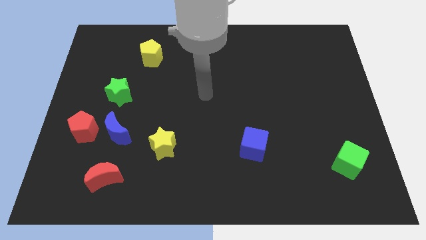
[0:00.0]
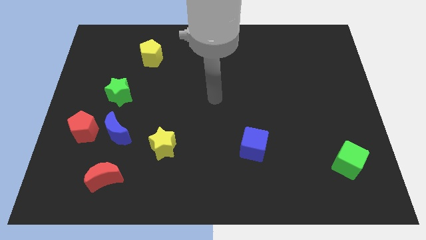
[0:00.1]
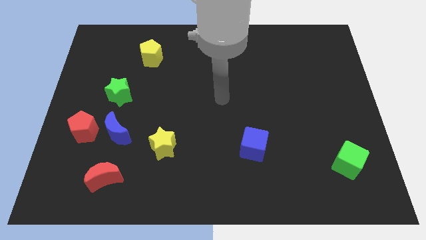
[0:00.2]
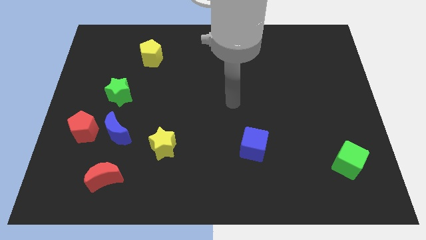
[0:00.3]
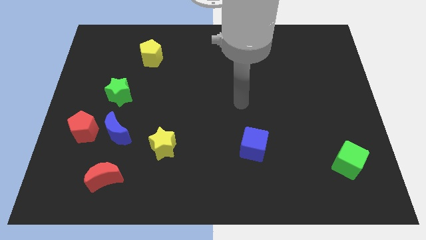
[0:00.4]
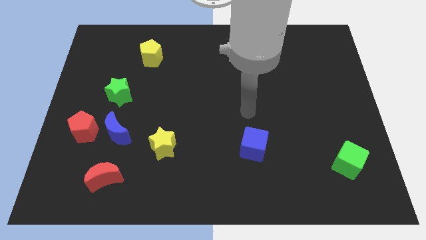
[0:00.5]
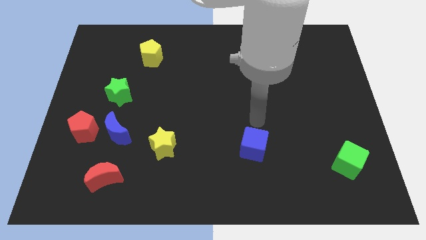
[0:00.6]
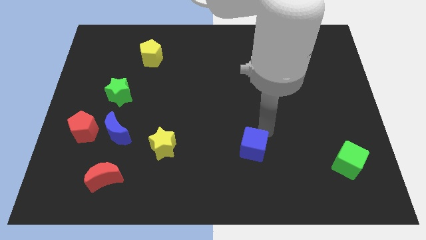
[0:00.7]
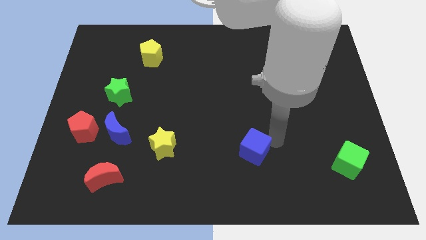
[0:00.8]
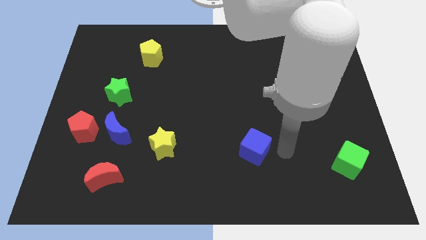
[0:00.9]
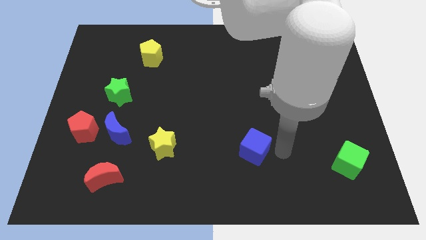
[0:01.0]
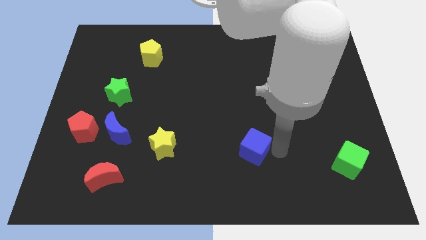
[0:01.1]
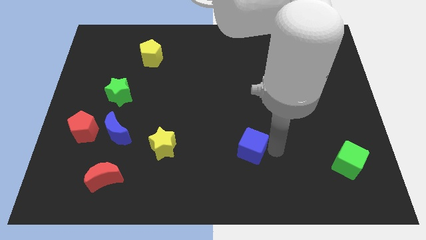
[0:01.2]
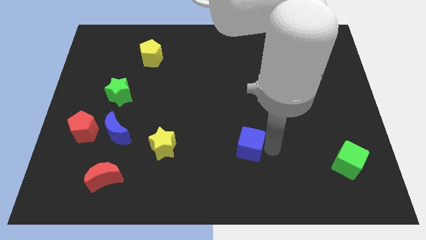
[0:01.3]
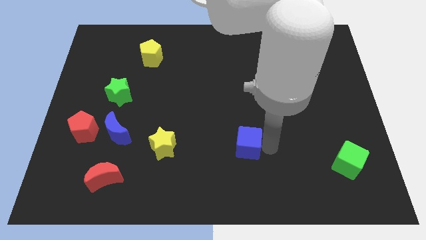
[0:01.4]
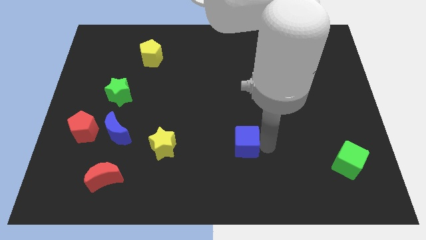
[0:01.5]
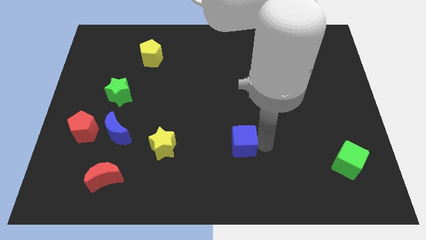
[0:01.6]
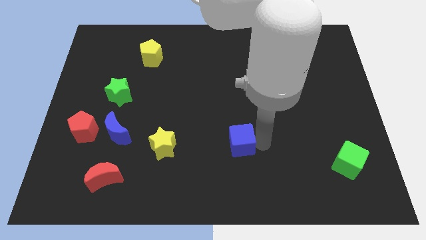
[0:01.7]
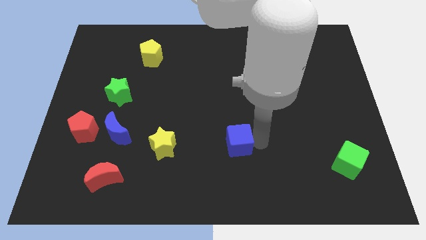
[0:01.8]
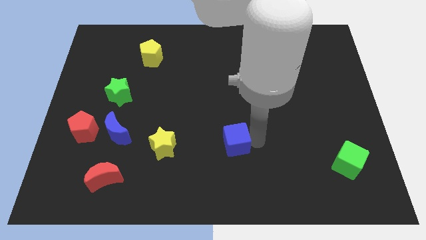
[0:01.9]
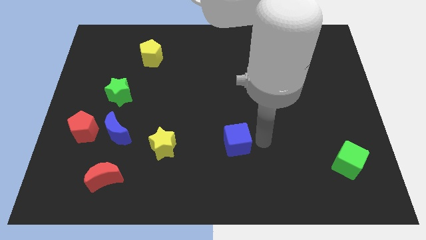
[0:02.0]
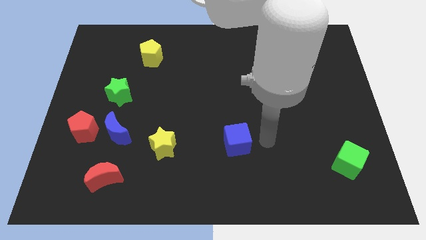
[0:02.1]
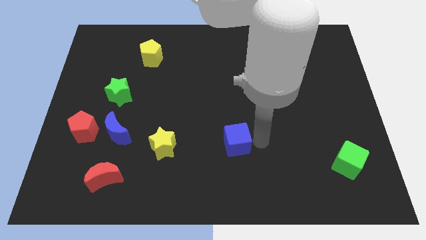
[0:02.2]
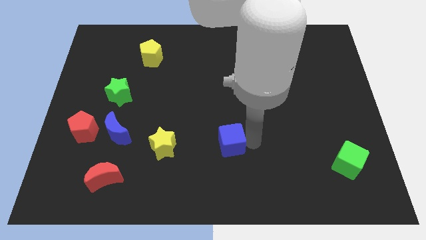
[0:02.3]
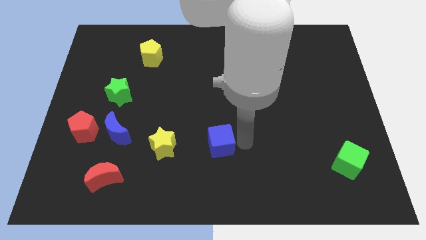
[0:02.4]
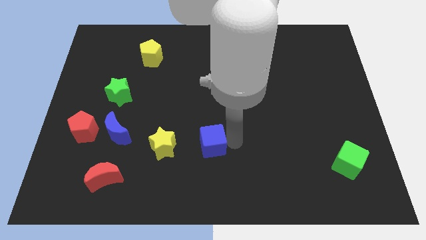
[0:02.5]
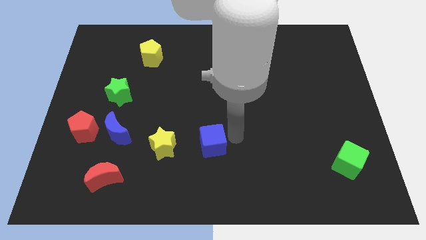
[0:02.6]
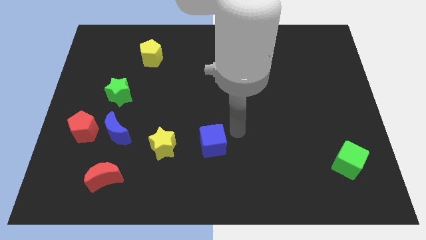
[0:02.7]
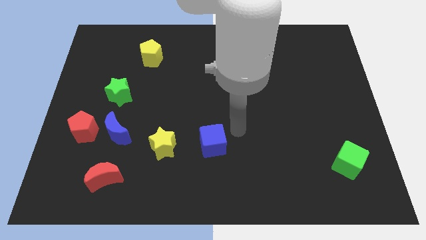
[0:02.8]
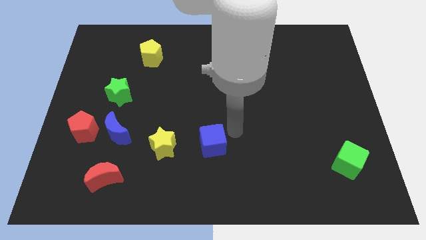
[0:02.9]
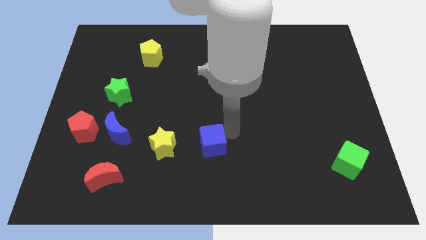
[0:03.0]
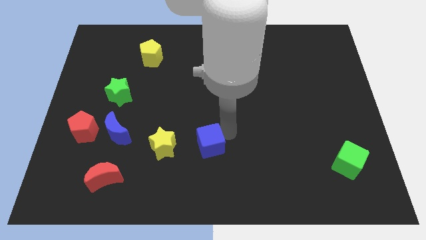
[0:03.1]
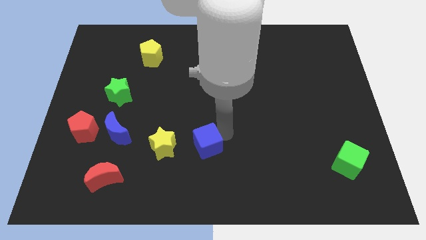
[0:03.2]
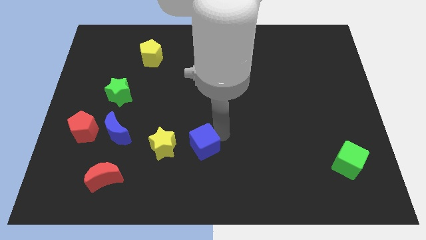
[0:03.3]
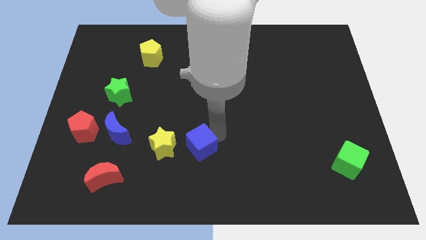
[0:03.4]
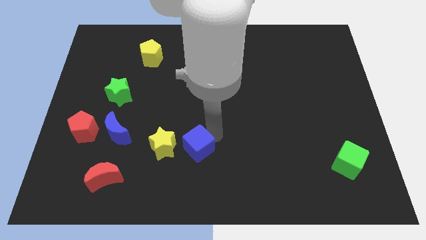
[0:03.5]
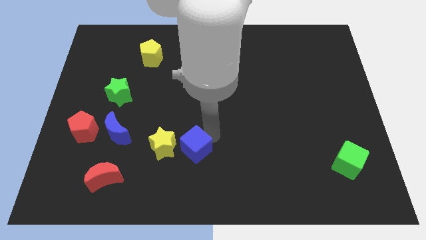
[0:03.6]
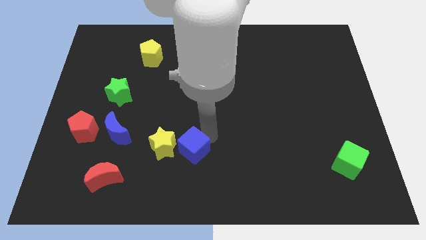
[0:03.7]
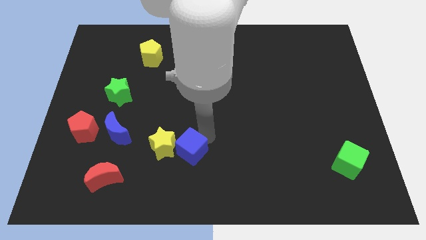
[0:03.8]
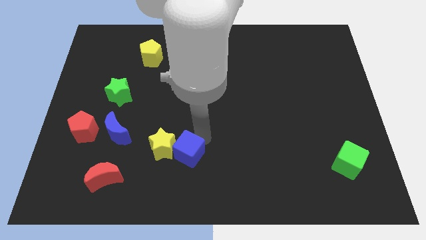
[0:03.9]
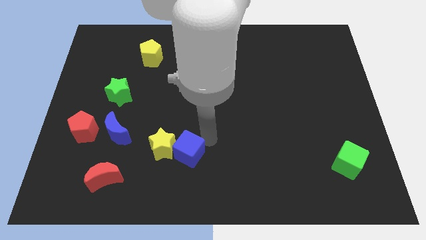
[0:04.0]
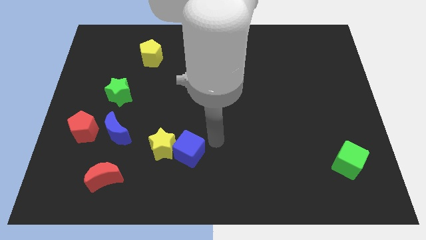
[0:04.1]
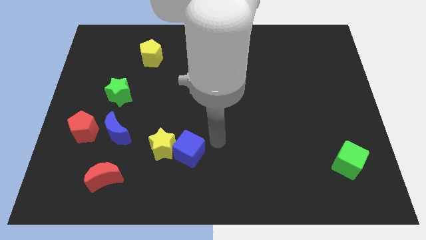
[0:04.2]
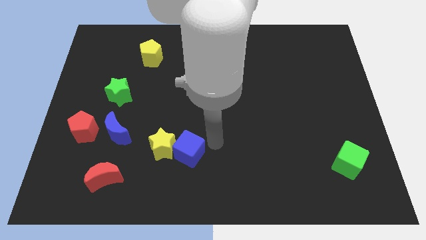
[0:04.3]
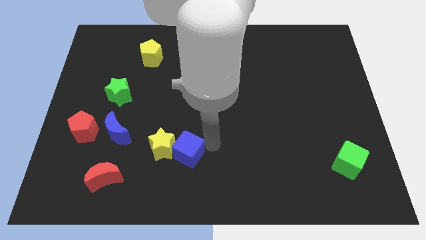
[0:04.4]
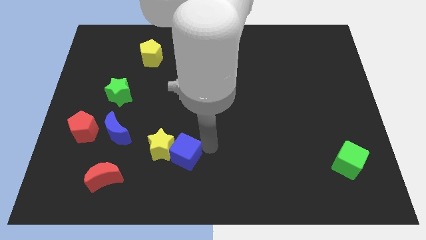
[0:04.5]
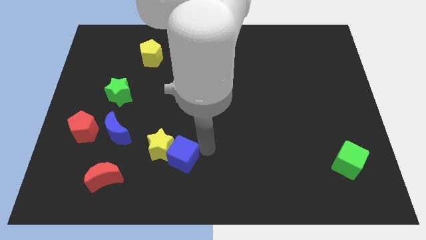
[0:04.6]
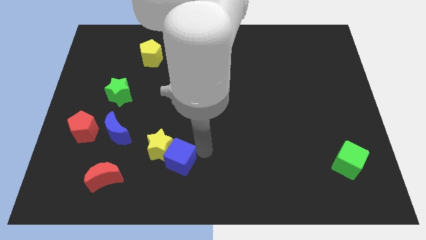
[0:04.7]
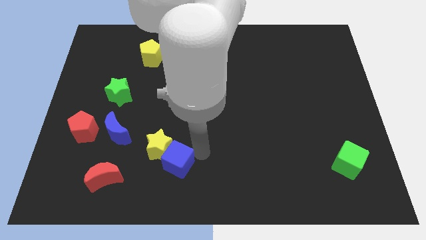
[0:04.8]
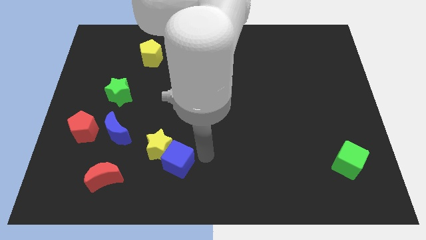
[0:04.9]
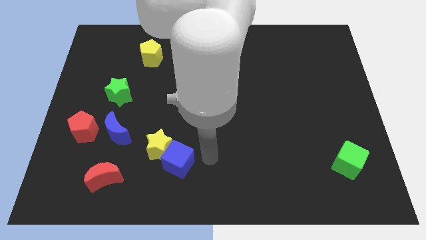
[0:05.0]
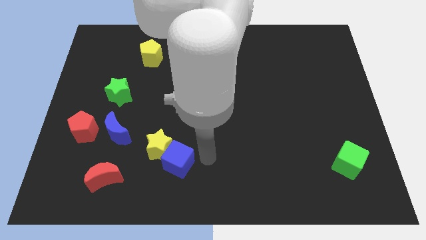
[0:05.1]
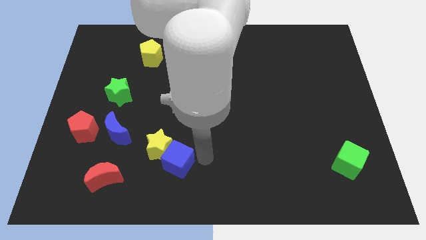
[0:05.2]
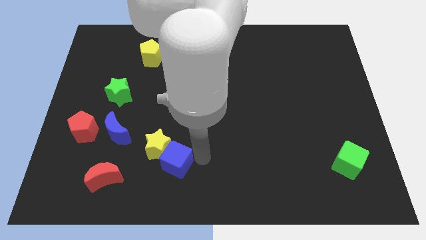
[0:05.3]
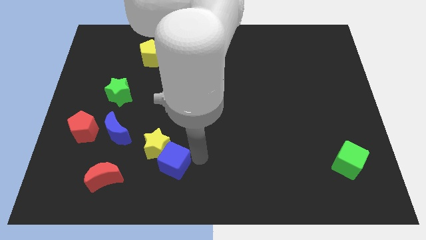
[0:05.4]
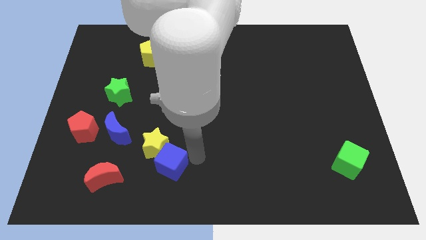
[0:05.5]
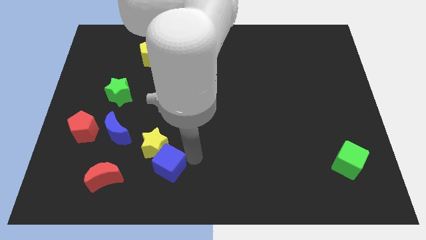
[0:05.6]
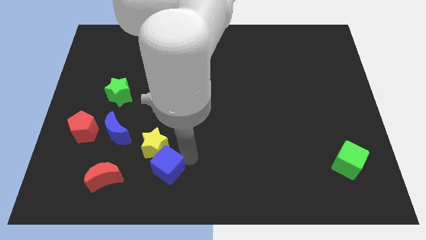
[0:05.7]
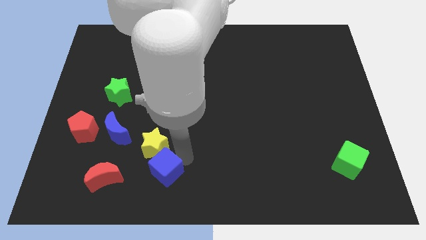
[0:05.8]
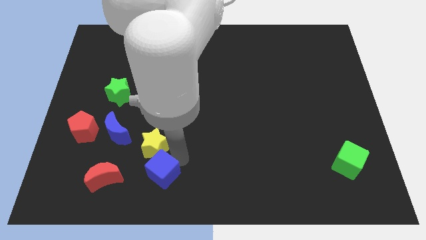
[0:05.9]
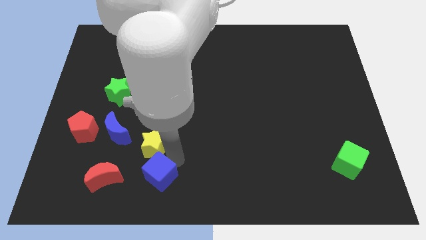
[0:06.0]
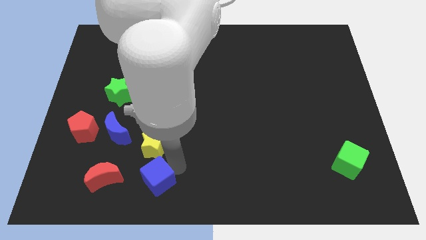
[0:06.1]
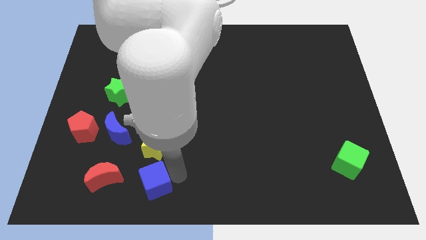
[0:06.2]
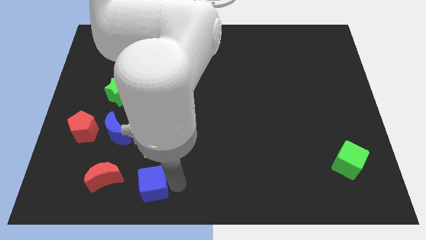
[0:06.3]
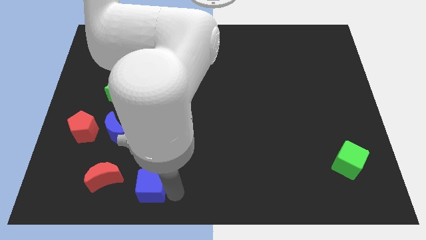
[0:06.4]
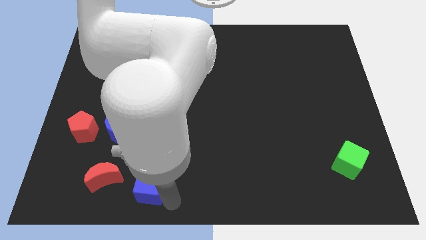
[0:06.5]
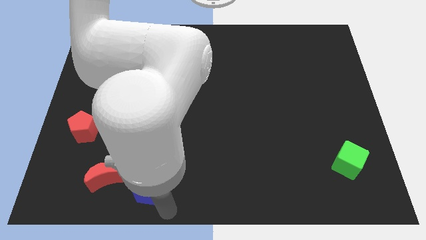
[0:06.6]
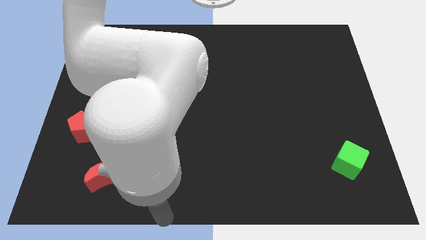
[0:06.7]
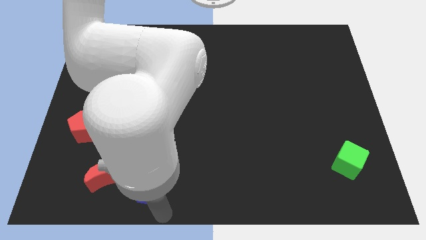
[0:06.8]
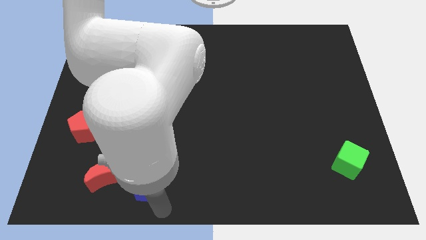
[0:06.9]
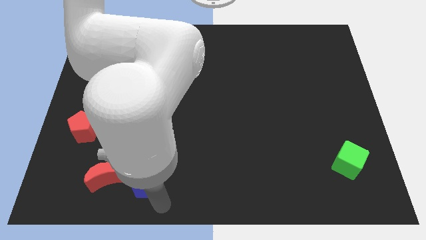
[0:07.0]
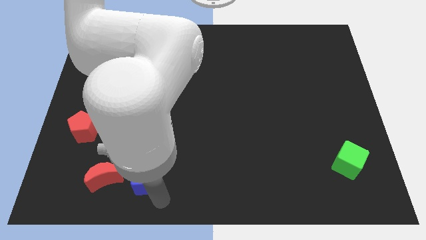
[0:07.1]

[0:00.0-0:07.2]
slide the blue cube left

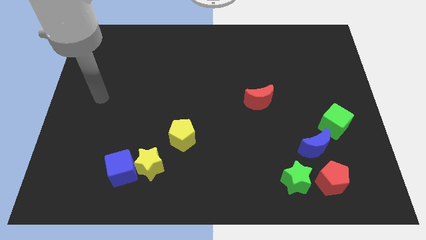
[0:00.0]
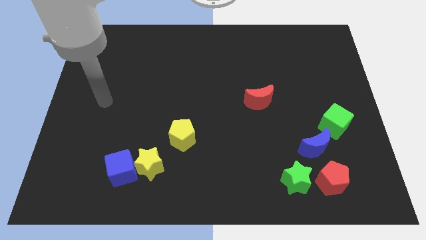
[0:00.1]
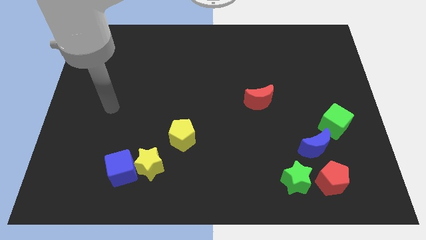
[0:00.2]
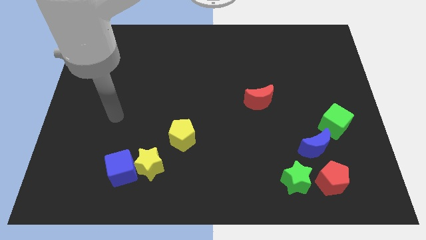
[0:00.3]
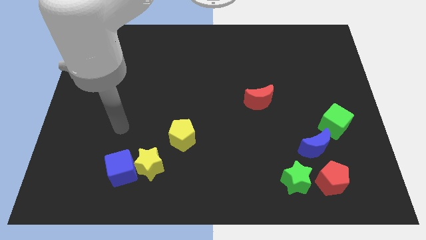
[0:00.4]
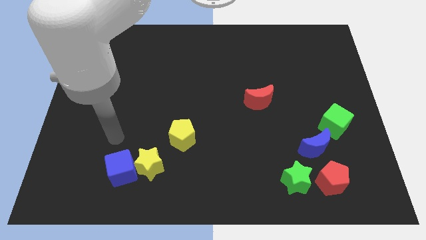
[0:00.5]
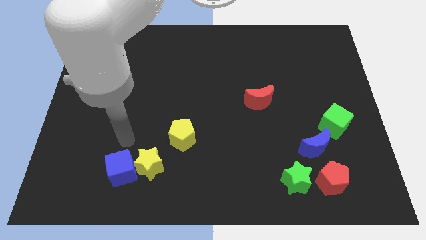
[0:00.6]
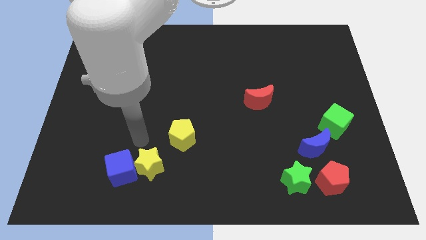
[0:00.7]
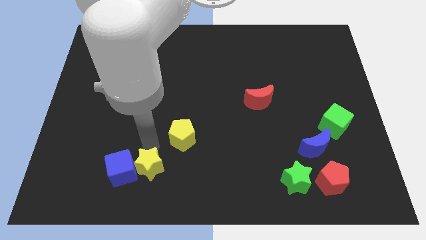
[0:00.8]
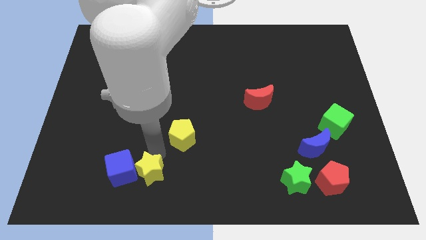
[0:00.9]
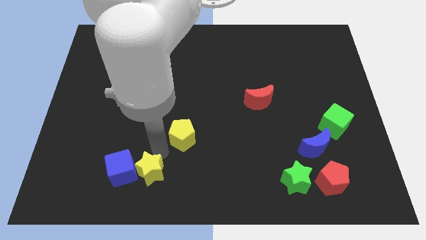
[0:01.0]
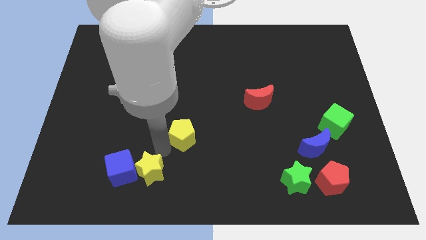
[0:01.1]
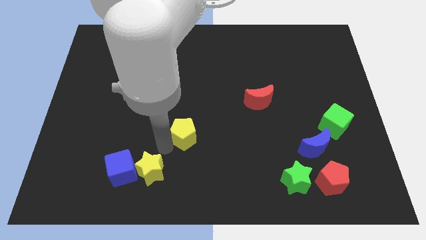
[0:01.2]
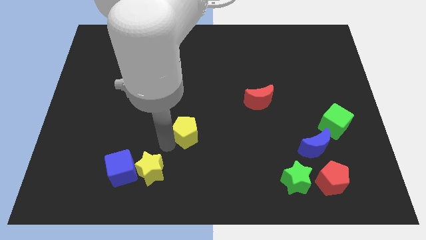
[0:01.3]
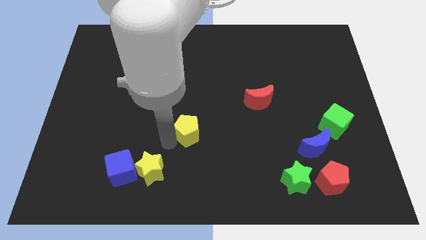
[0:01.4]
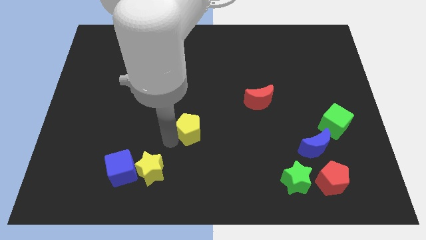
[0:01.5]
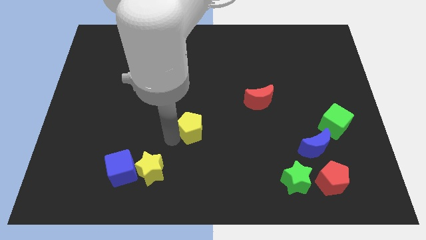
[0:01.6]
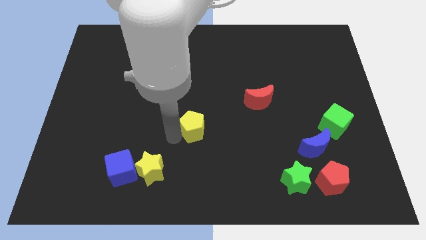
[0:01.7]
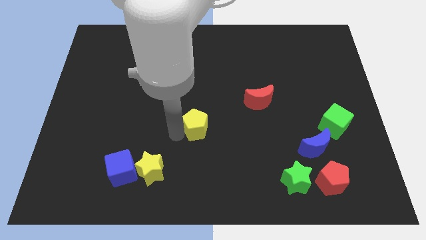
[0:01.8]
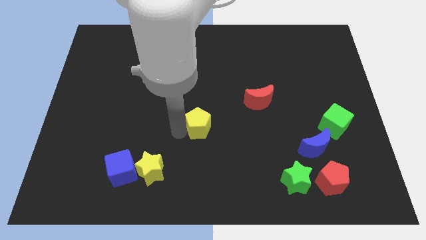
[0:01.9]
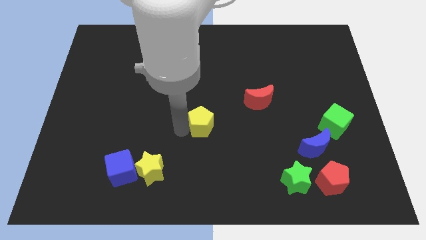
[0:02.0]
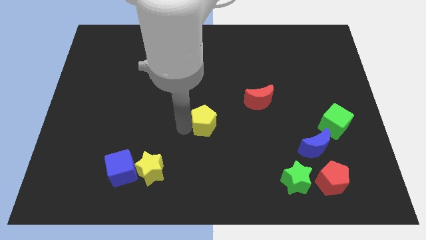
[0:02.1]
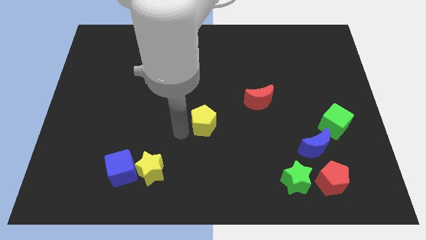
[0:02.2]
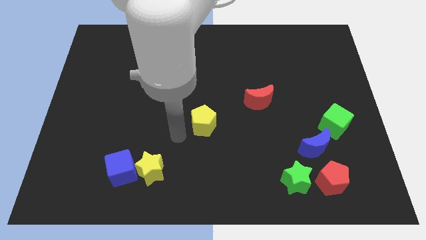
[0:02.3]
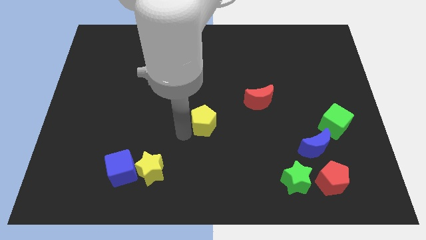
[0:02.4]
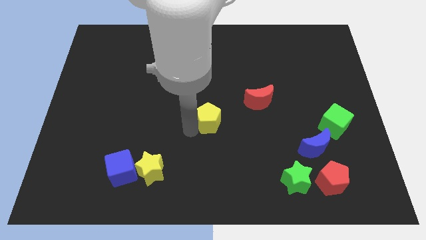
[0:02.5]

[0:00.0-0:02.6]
slide the yellow pentagon somewhat up and then right
